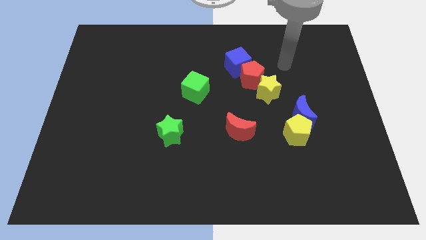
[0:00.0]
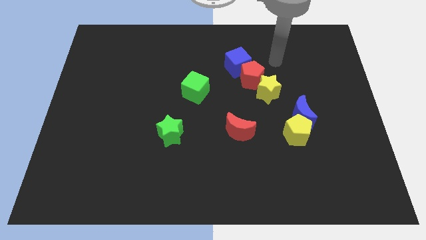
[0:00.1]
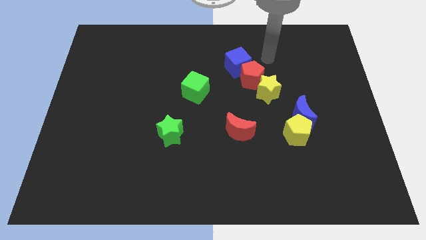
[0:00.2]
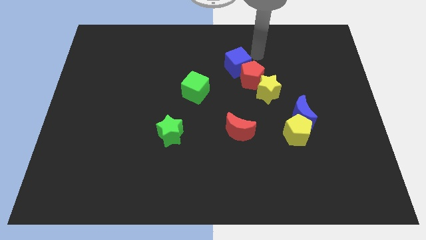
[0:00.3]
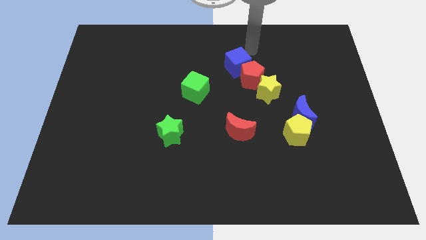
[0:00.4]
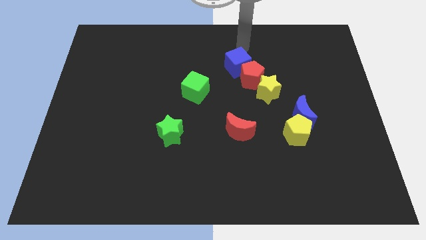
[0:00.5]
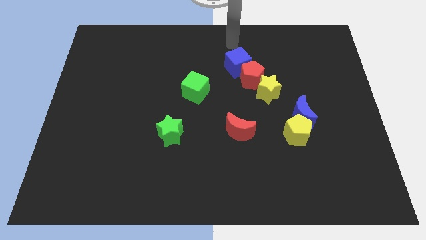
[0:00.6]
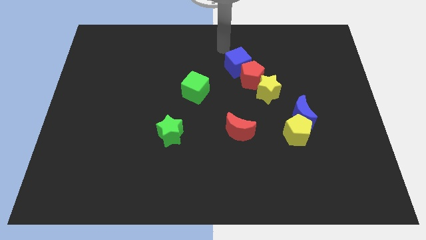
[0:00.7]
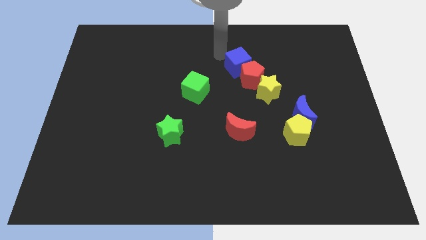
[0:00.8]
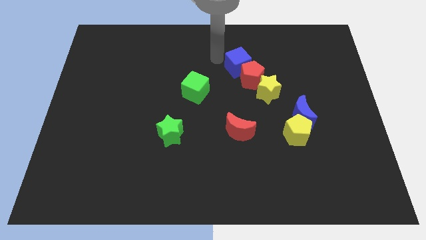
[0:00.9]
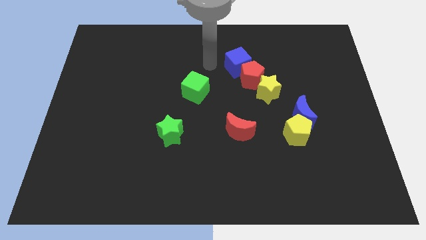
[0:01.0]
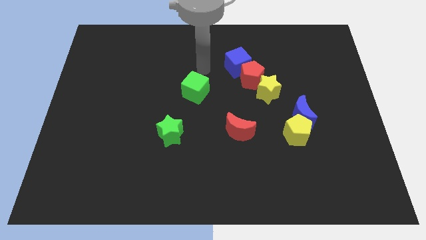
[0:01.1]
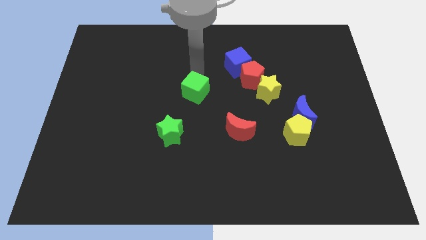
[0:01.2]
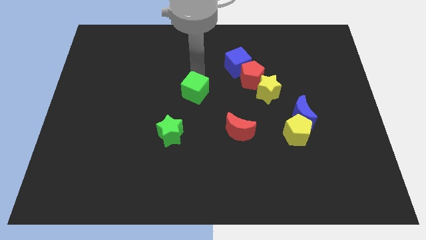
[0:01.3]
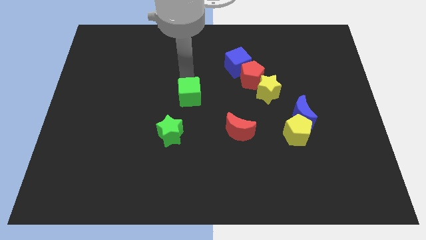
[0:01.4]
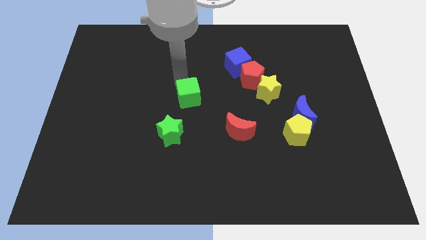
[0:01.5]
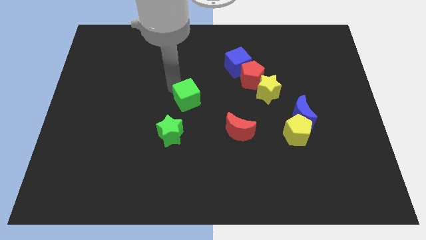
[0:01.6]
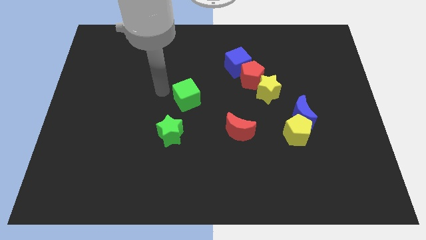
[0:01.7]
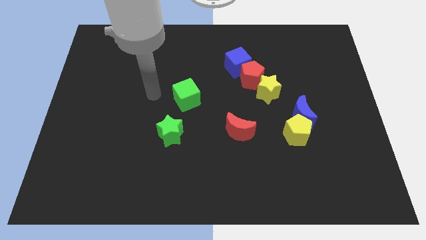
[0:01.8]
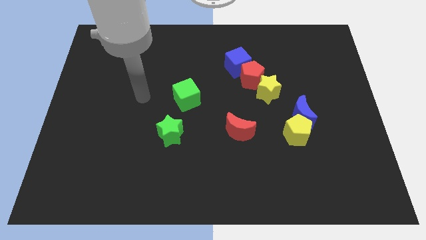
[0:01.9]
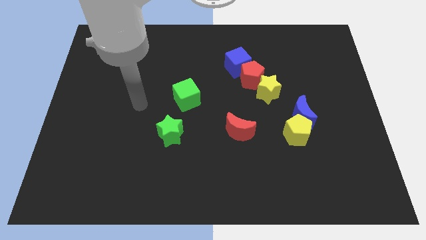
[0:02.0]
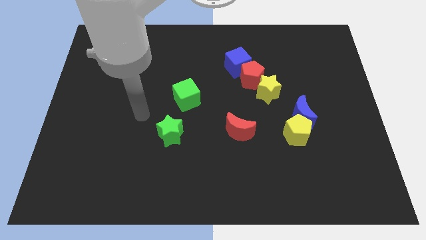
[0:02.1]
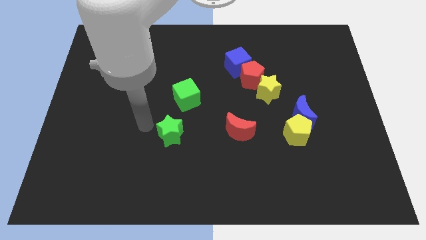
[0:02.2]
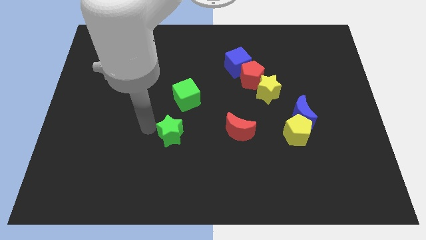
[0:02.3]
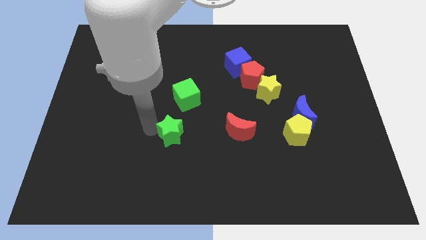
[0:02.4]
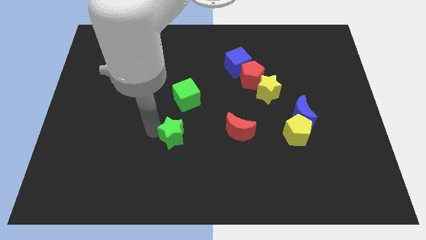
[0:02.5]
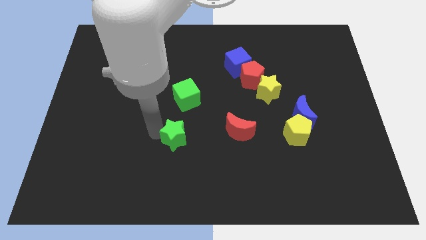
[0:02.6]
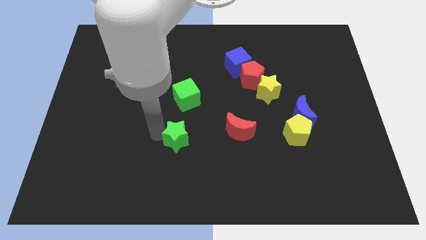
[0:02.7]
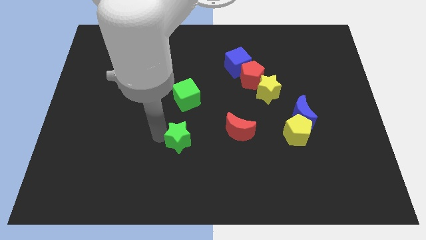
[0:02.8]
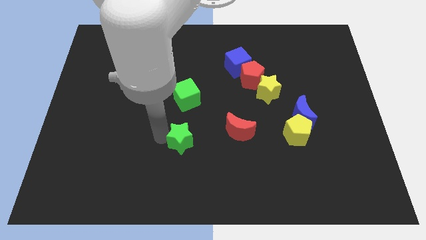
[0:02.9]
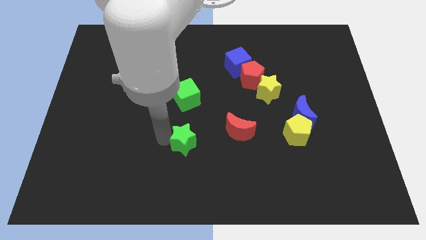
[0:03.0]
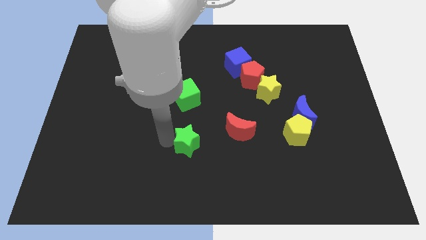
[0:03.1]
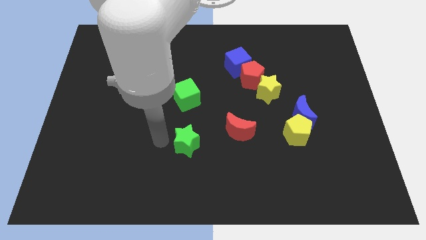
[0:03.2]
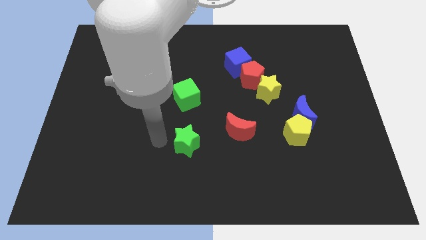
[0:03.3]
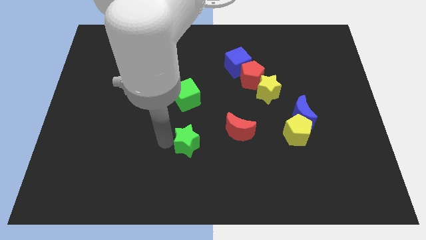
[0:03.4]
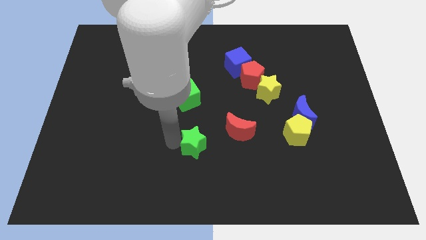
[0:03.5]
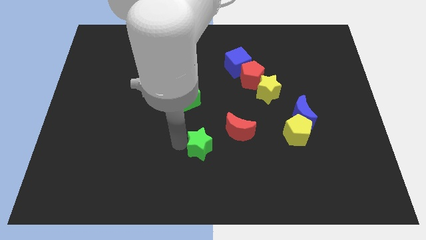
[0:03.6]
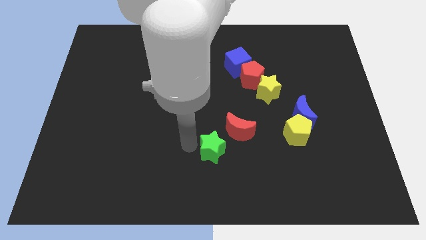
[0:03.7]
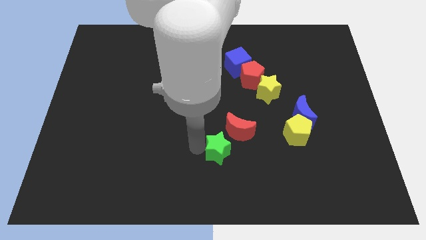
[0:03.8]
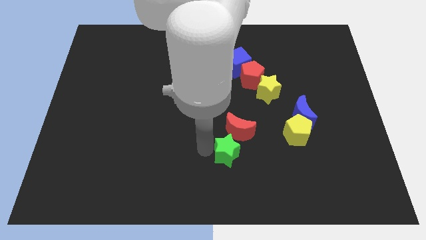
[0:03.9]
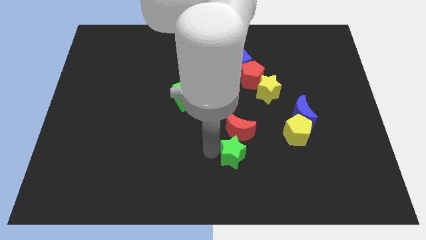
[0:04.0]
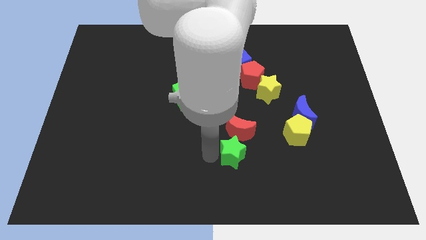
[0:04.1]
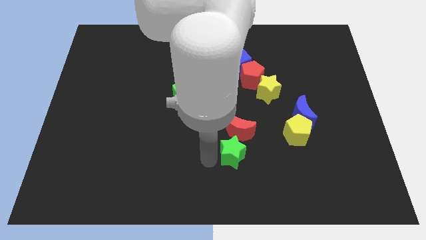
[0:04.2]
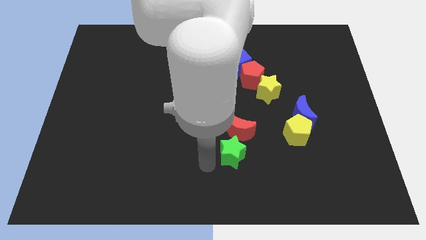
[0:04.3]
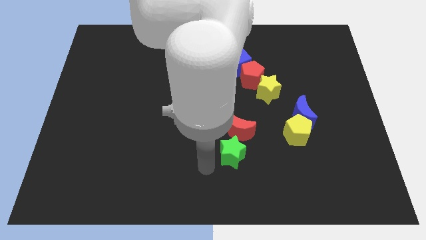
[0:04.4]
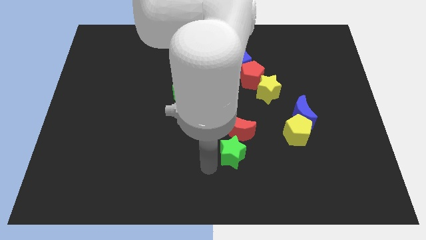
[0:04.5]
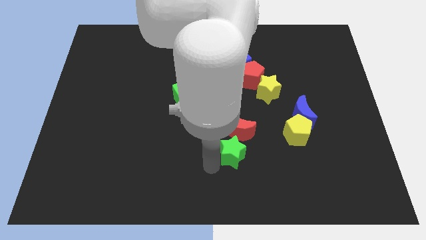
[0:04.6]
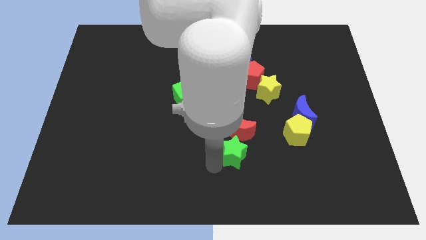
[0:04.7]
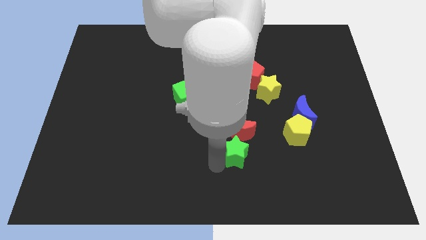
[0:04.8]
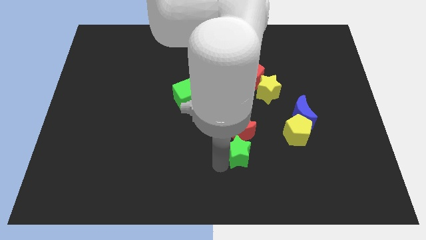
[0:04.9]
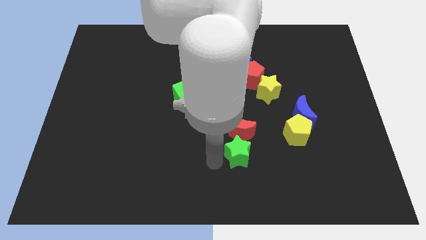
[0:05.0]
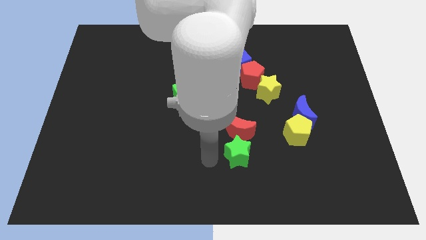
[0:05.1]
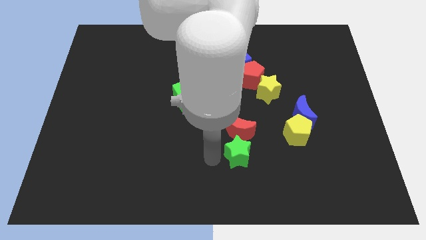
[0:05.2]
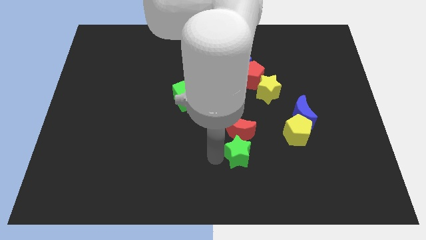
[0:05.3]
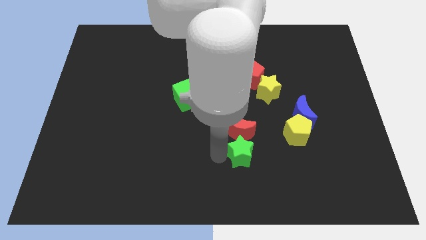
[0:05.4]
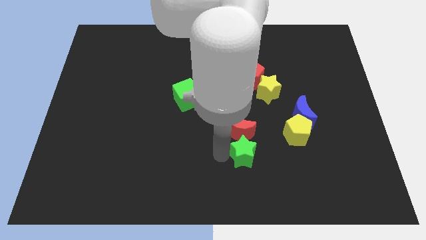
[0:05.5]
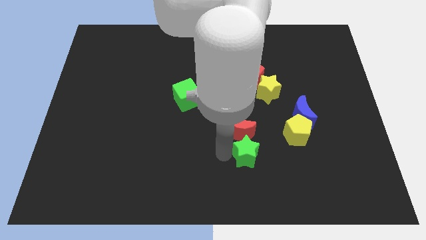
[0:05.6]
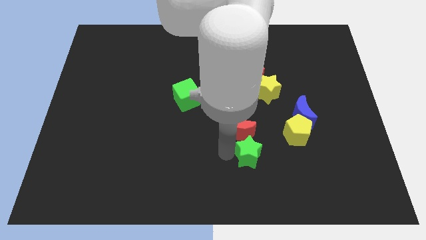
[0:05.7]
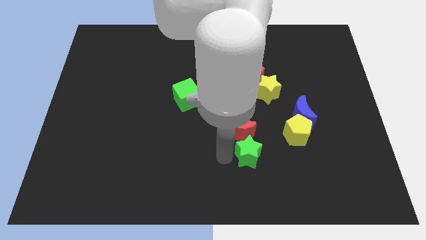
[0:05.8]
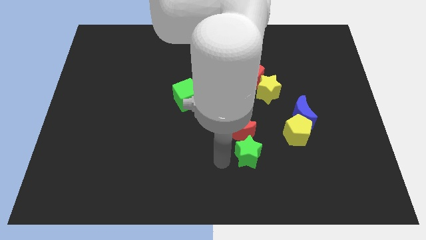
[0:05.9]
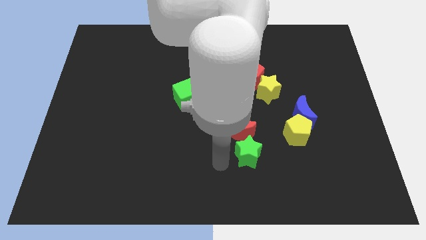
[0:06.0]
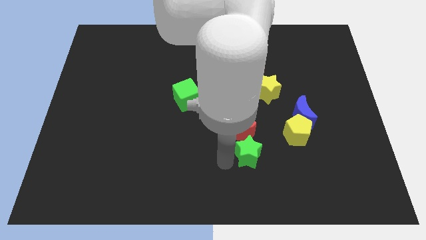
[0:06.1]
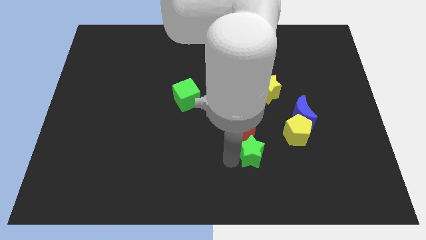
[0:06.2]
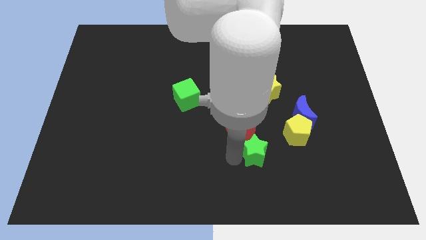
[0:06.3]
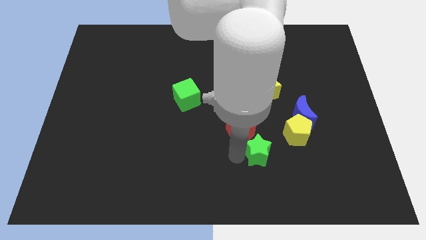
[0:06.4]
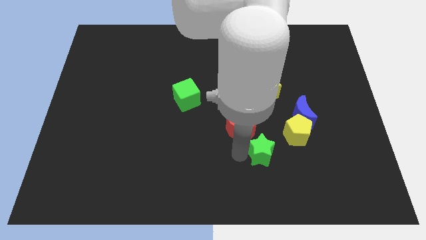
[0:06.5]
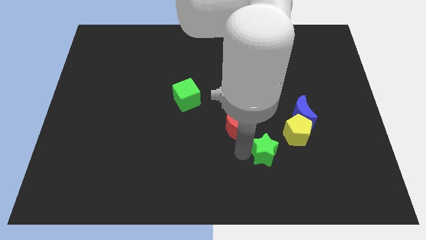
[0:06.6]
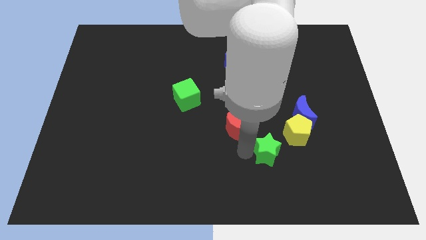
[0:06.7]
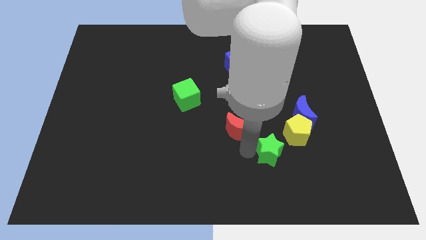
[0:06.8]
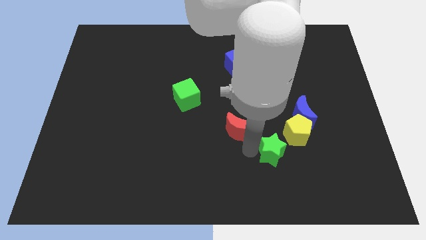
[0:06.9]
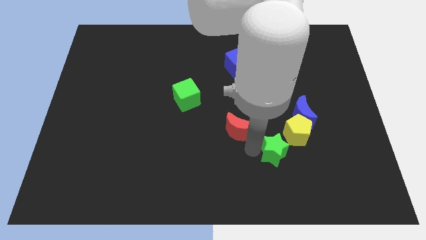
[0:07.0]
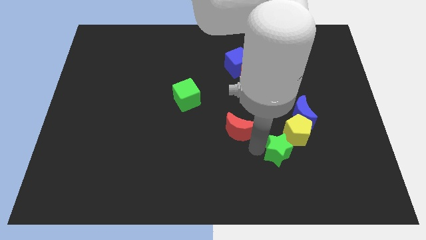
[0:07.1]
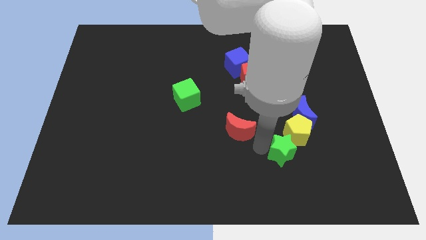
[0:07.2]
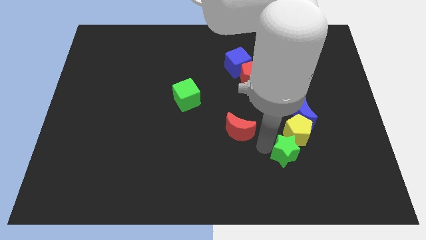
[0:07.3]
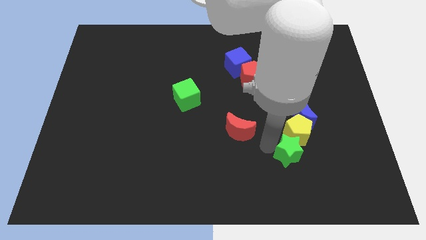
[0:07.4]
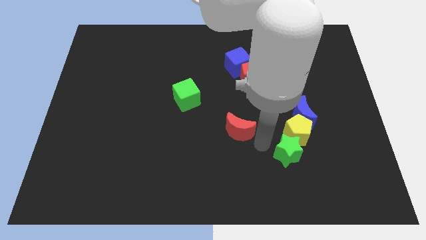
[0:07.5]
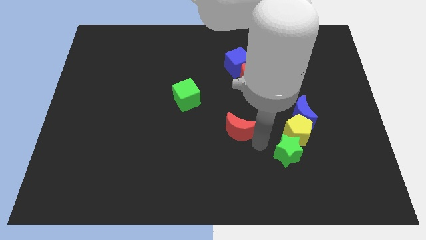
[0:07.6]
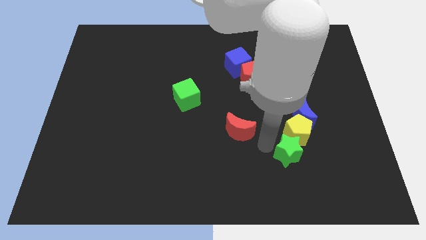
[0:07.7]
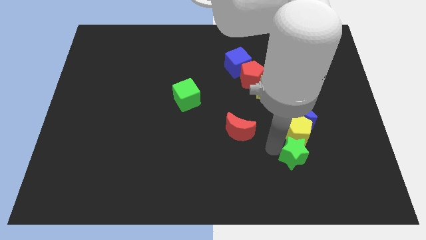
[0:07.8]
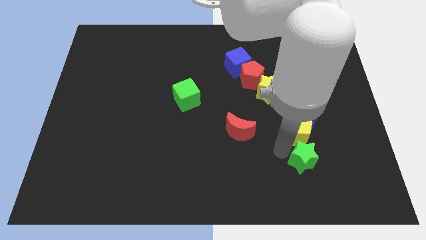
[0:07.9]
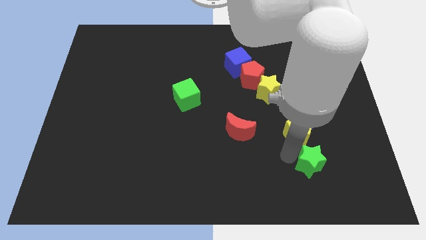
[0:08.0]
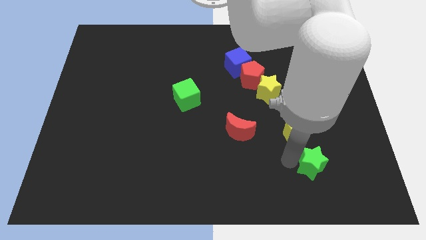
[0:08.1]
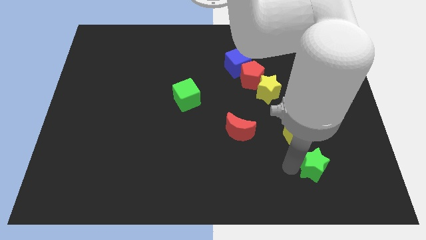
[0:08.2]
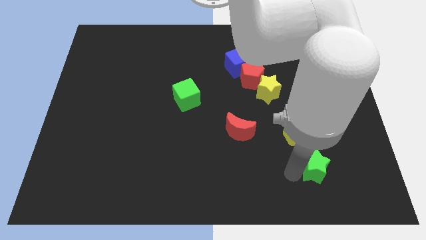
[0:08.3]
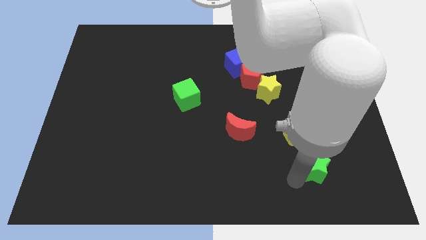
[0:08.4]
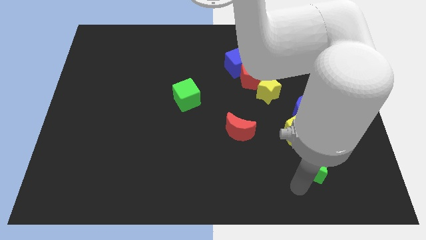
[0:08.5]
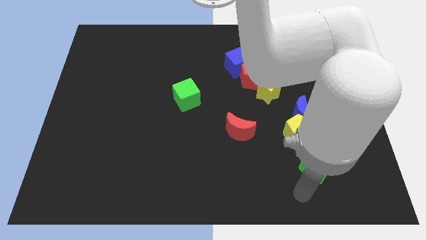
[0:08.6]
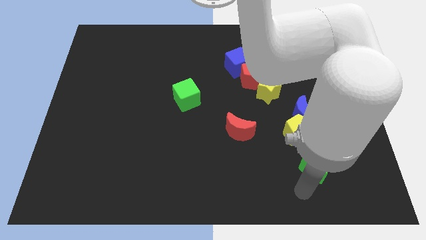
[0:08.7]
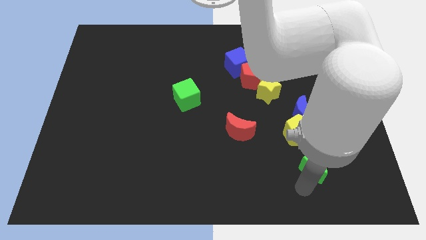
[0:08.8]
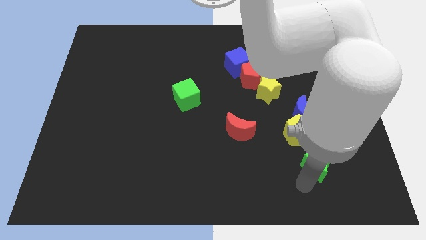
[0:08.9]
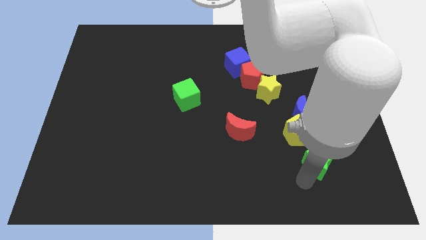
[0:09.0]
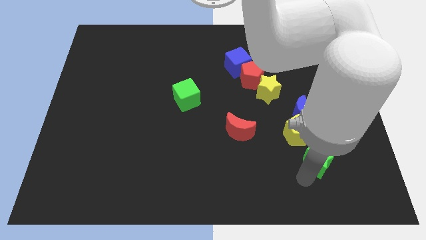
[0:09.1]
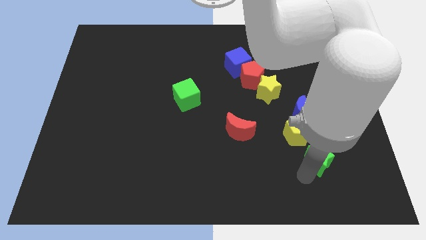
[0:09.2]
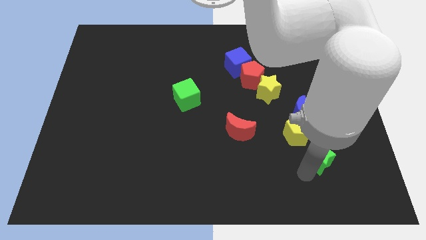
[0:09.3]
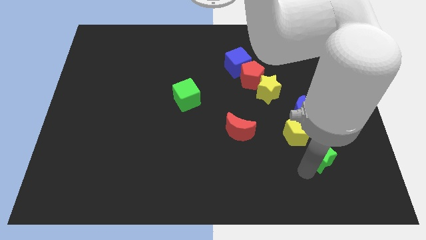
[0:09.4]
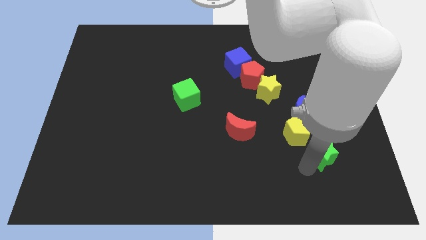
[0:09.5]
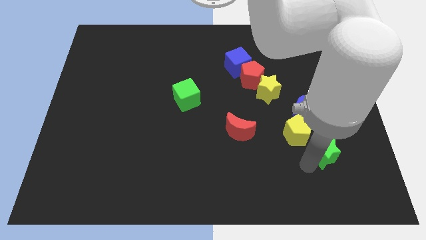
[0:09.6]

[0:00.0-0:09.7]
push the green star to the bottom right side of the blue moon
